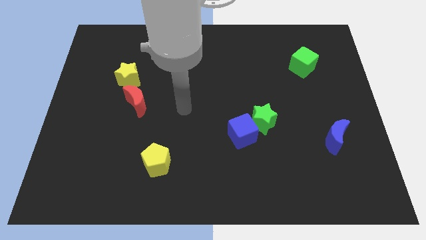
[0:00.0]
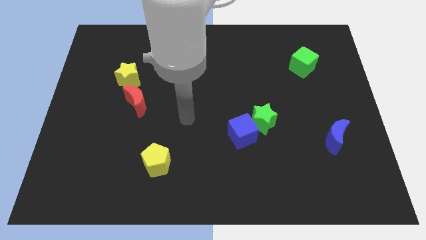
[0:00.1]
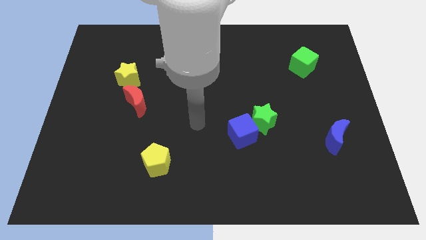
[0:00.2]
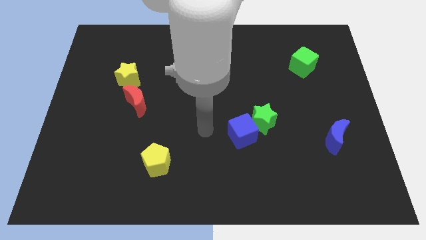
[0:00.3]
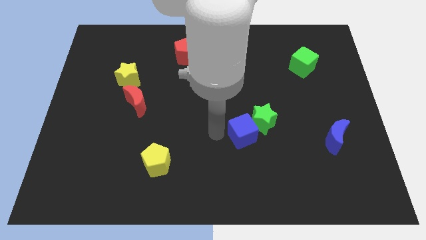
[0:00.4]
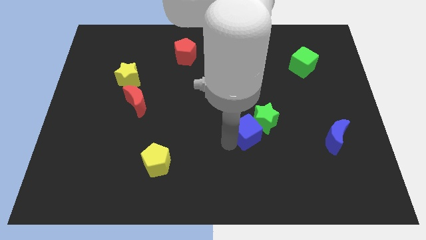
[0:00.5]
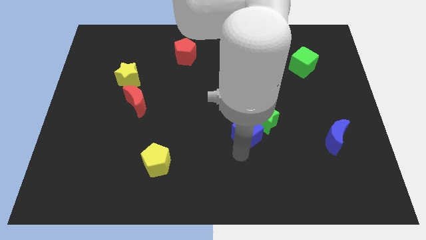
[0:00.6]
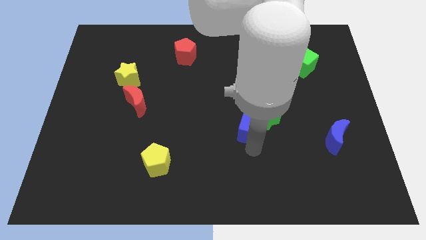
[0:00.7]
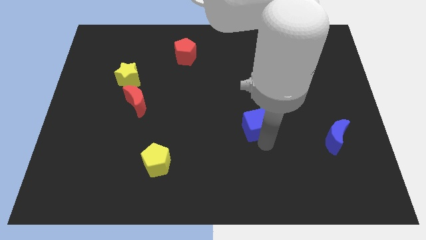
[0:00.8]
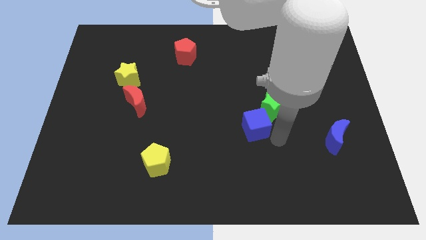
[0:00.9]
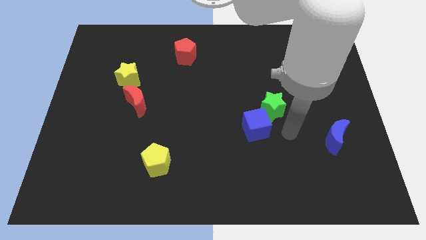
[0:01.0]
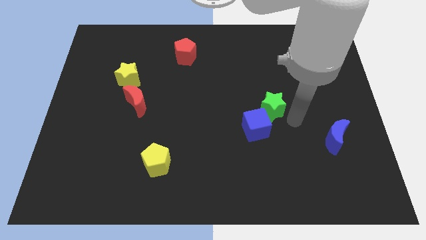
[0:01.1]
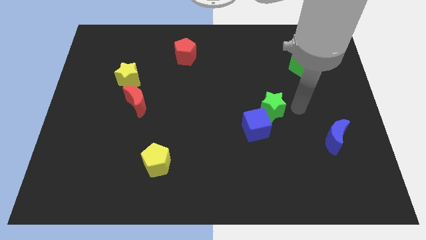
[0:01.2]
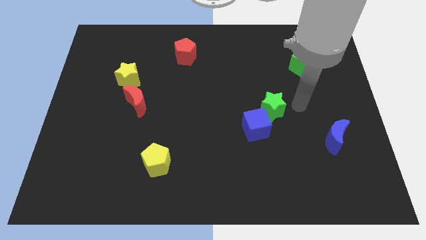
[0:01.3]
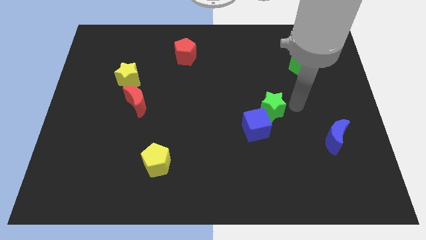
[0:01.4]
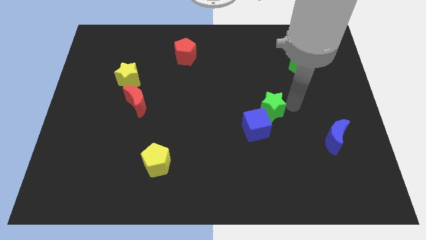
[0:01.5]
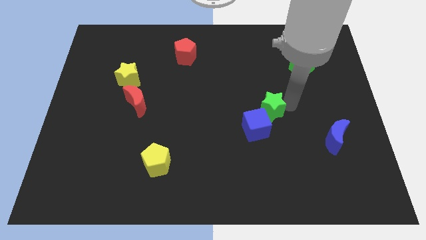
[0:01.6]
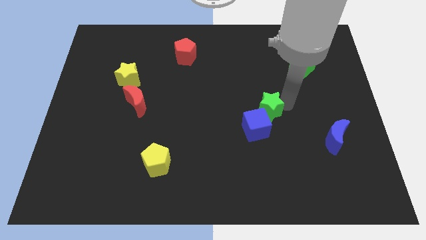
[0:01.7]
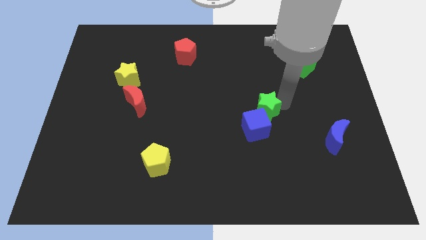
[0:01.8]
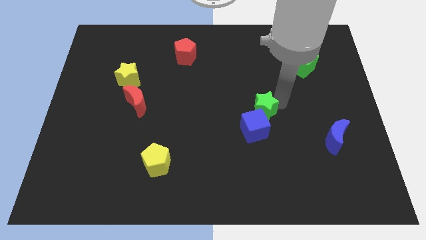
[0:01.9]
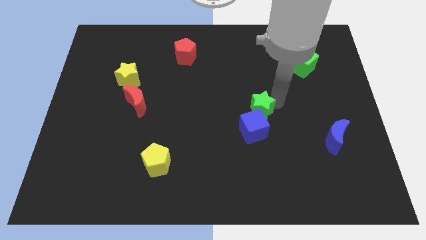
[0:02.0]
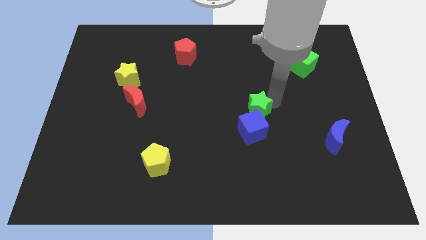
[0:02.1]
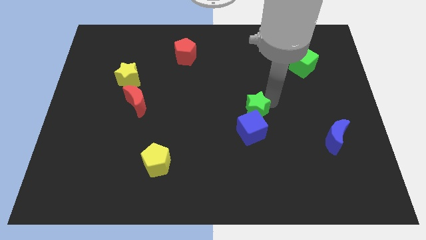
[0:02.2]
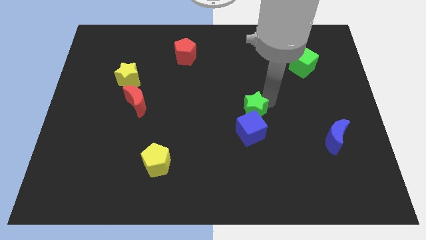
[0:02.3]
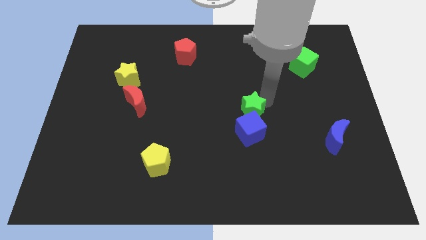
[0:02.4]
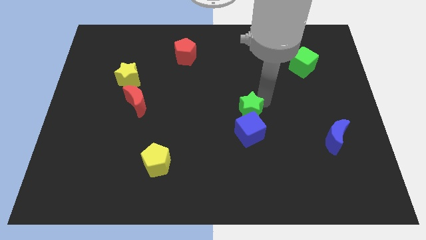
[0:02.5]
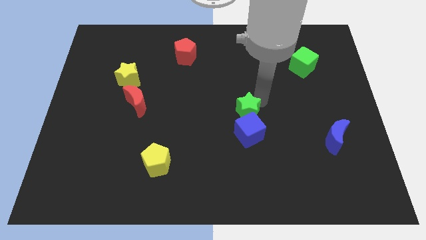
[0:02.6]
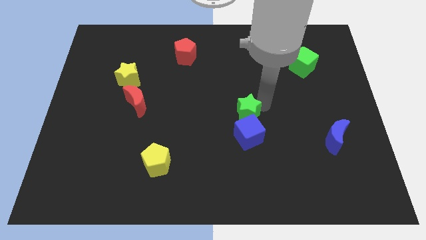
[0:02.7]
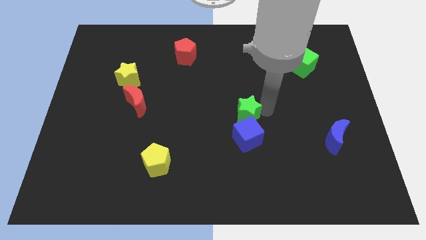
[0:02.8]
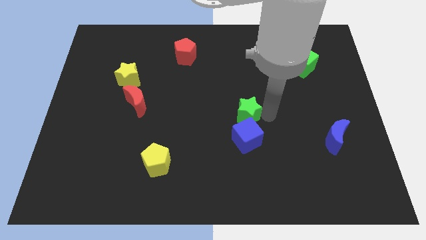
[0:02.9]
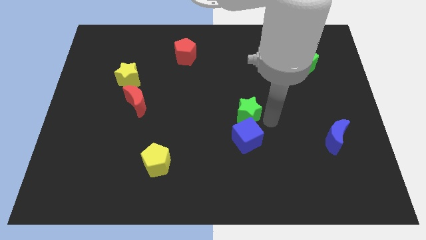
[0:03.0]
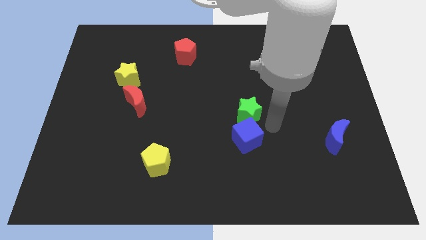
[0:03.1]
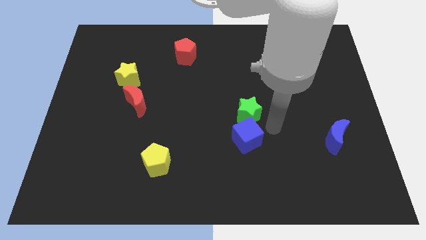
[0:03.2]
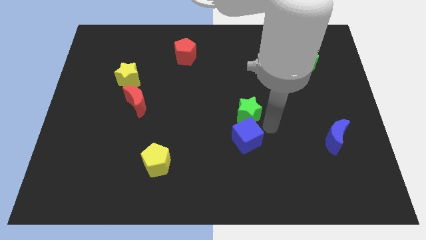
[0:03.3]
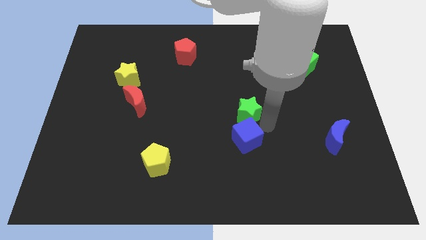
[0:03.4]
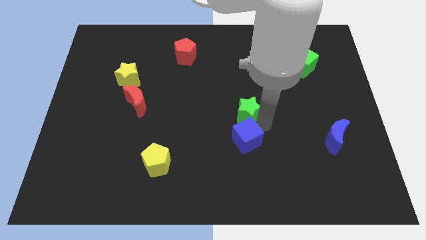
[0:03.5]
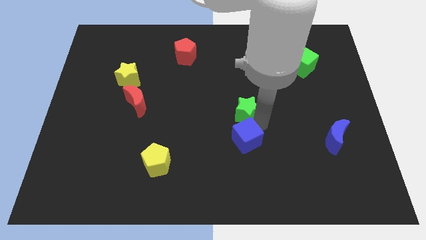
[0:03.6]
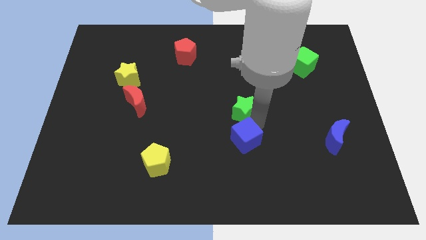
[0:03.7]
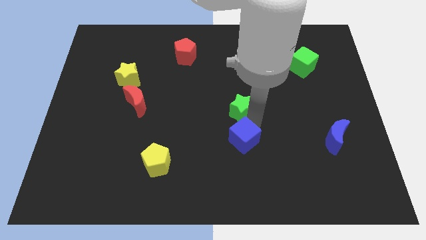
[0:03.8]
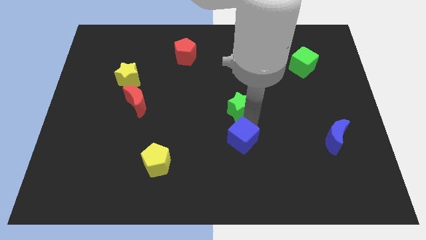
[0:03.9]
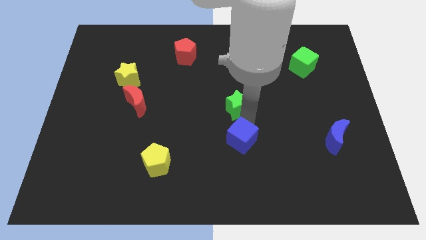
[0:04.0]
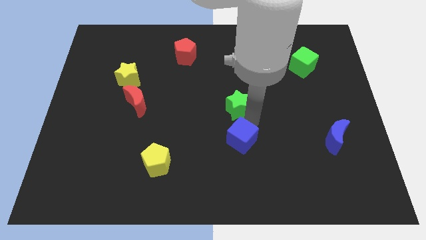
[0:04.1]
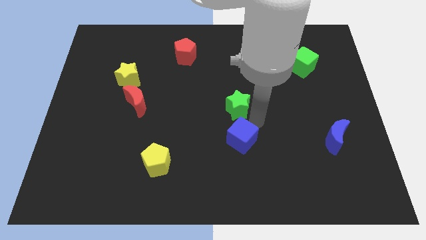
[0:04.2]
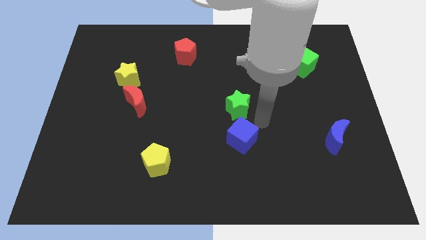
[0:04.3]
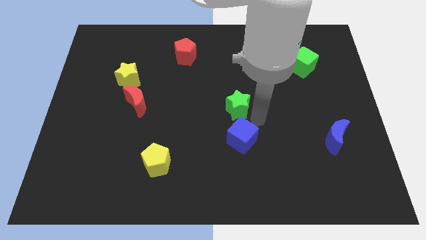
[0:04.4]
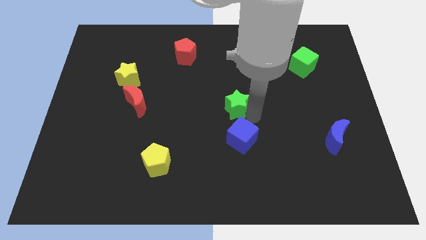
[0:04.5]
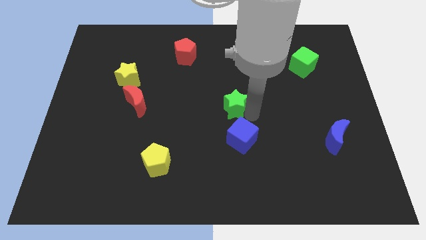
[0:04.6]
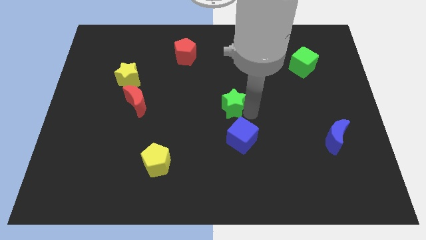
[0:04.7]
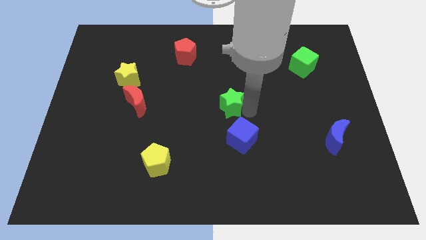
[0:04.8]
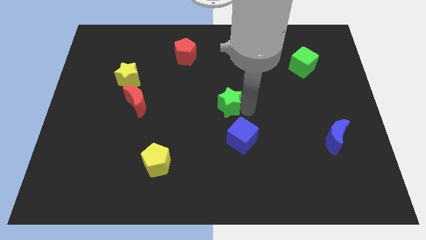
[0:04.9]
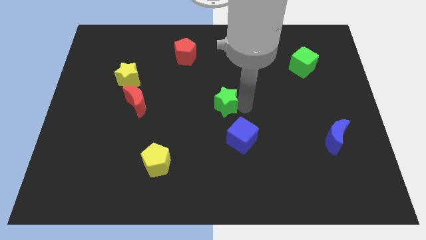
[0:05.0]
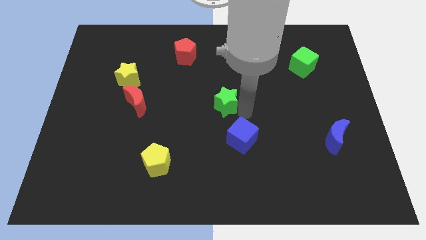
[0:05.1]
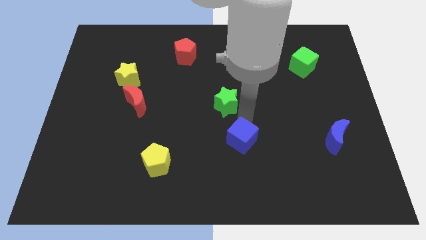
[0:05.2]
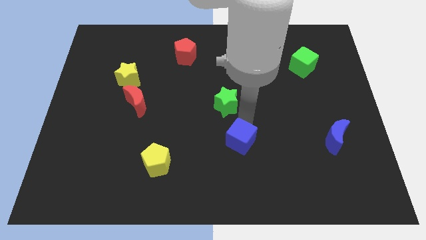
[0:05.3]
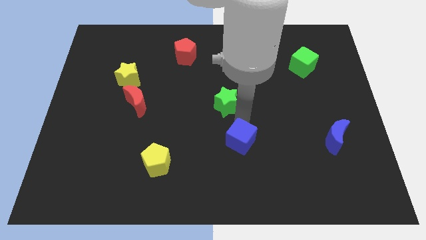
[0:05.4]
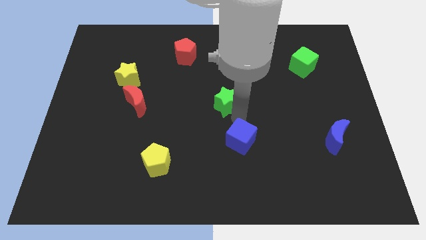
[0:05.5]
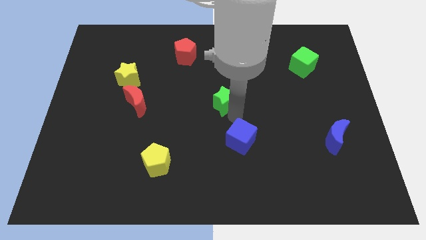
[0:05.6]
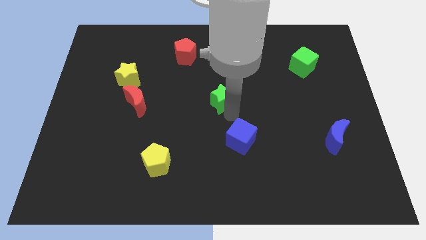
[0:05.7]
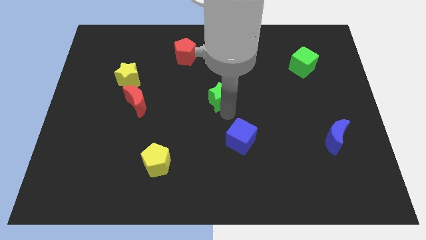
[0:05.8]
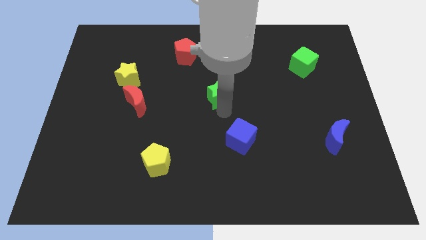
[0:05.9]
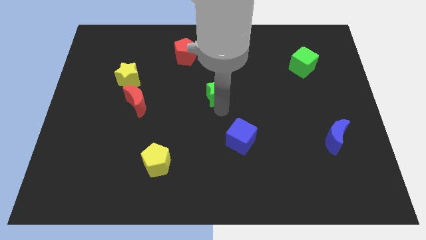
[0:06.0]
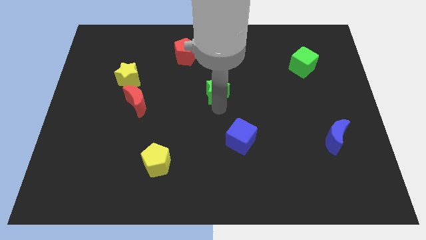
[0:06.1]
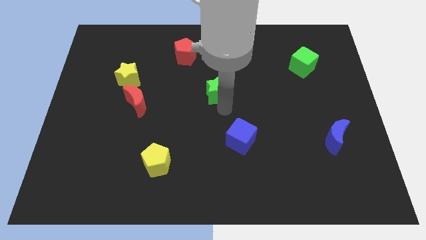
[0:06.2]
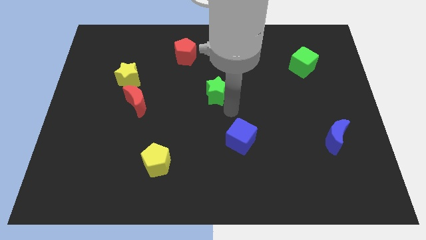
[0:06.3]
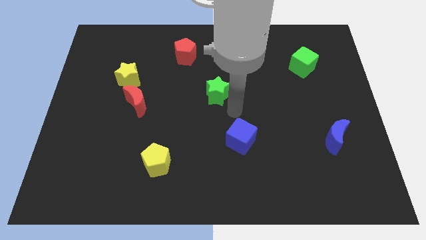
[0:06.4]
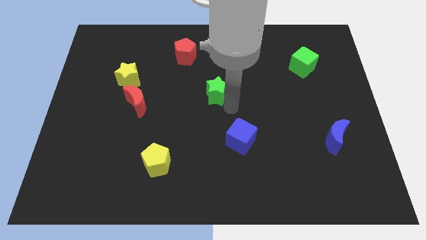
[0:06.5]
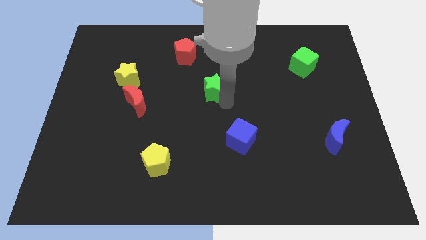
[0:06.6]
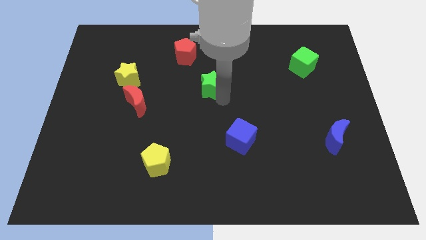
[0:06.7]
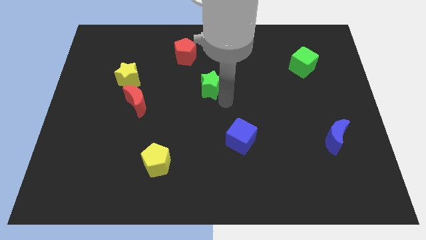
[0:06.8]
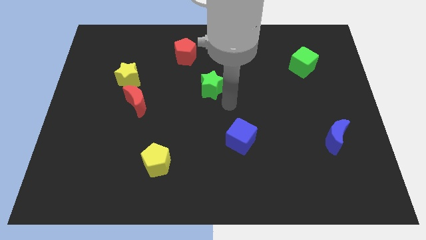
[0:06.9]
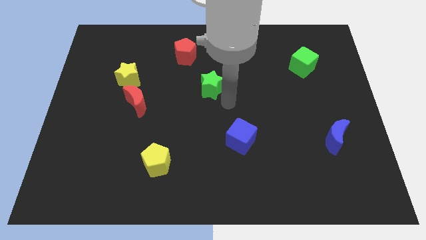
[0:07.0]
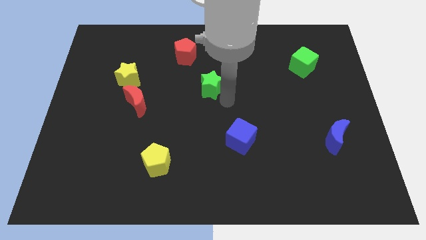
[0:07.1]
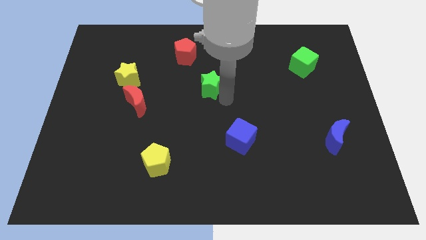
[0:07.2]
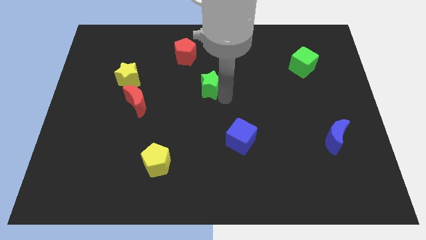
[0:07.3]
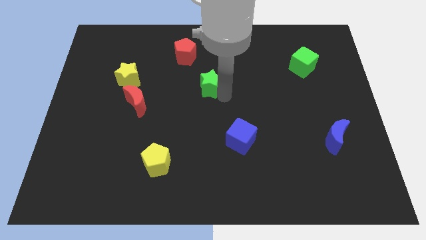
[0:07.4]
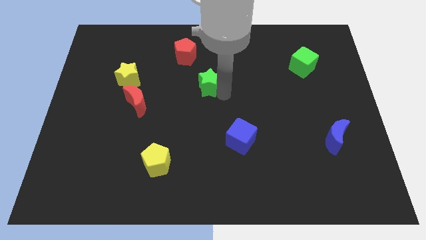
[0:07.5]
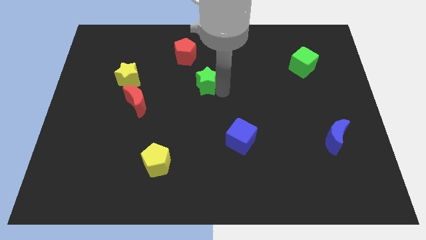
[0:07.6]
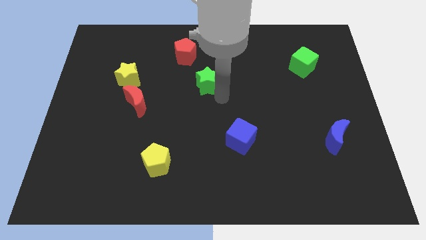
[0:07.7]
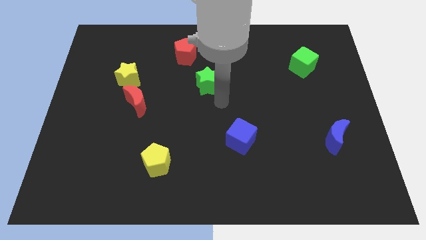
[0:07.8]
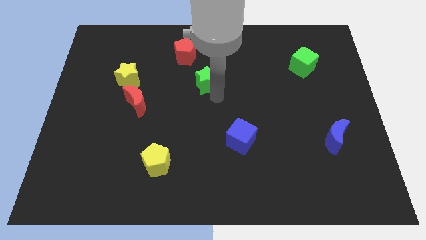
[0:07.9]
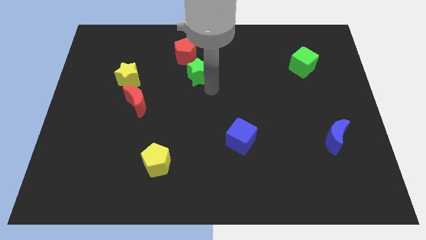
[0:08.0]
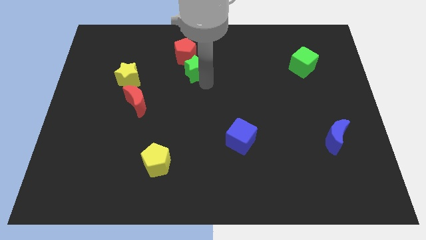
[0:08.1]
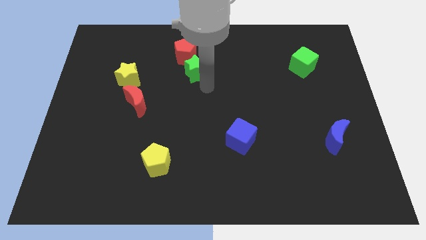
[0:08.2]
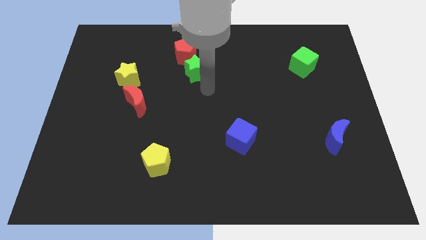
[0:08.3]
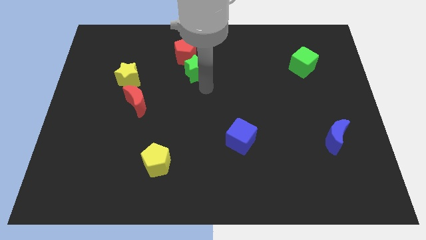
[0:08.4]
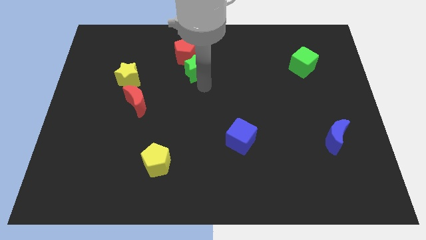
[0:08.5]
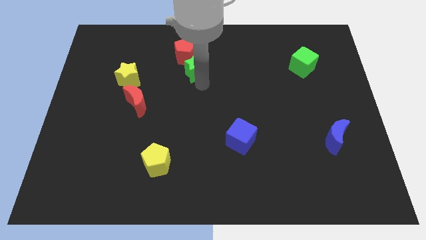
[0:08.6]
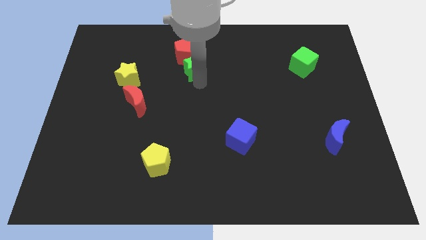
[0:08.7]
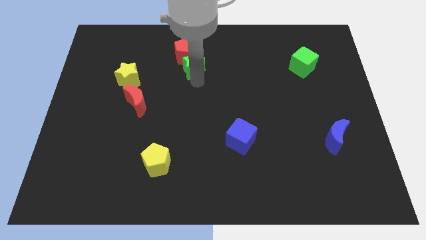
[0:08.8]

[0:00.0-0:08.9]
move the green star close to the red pentagon
